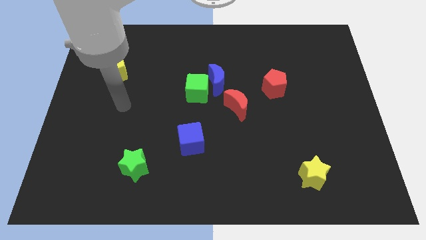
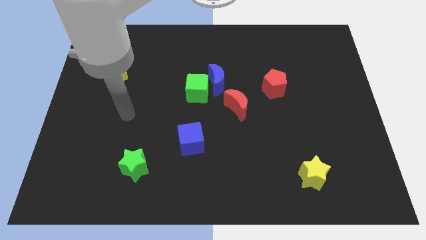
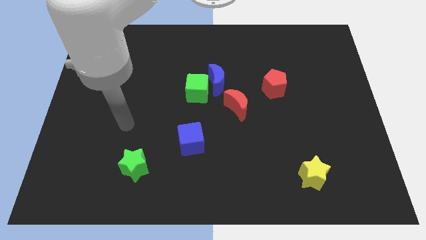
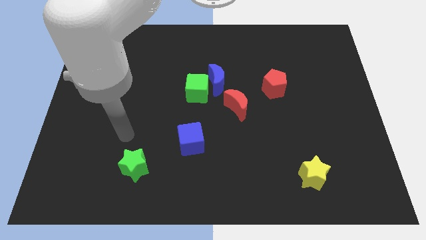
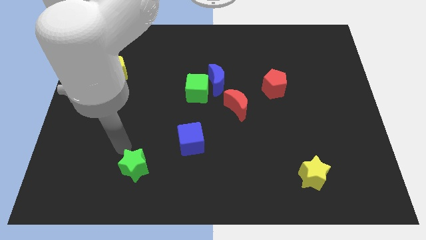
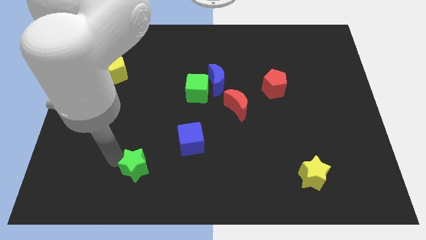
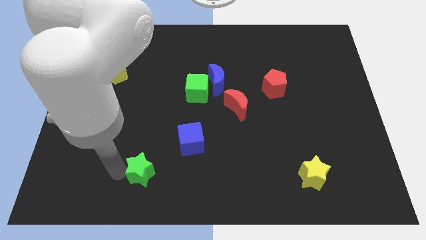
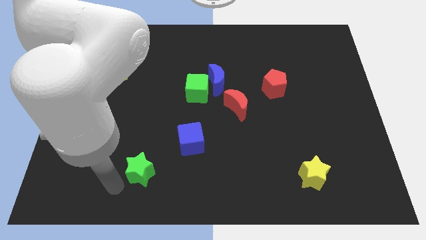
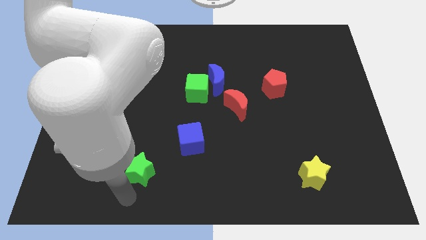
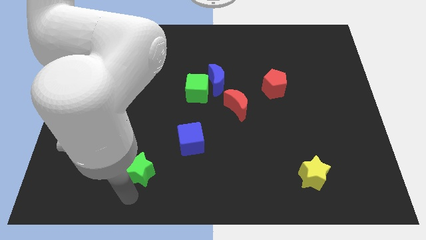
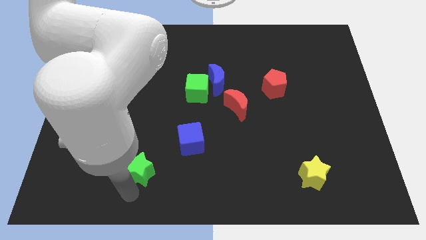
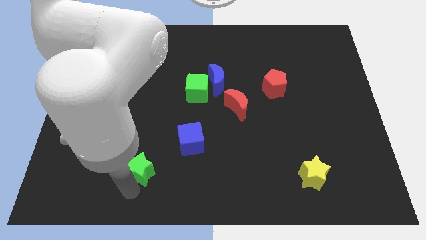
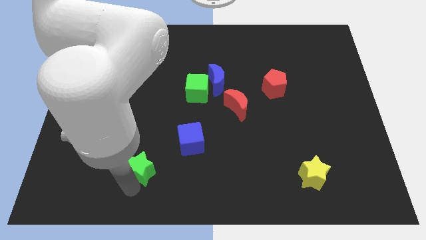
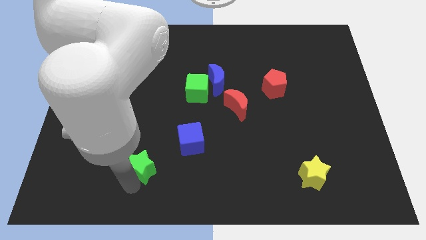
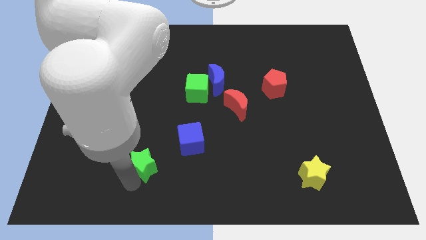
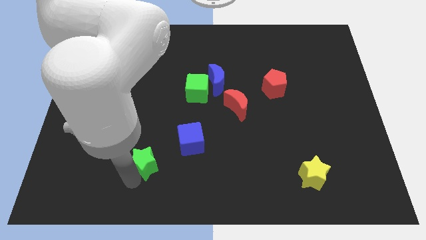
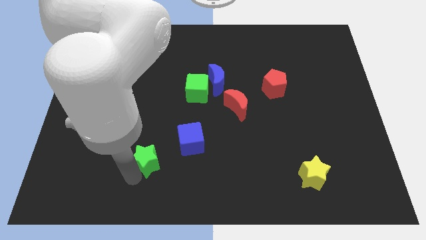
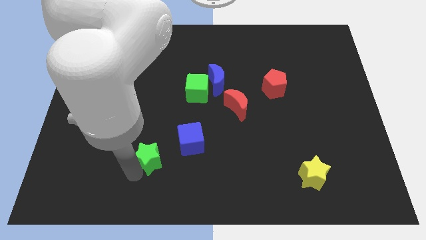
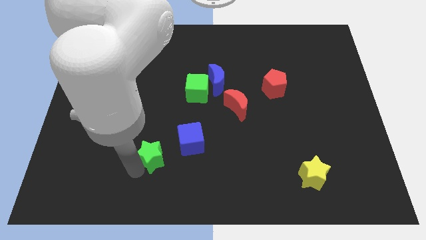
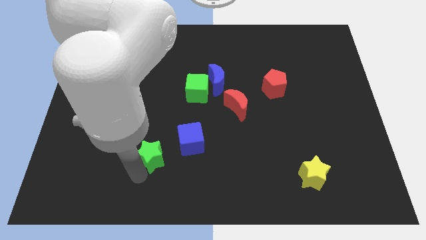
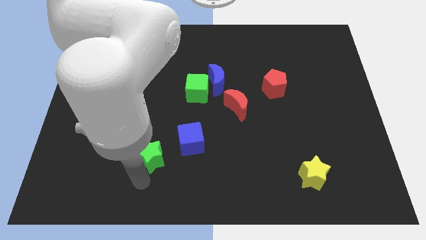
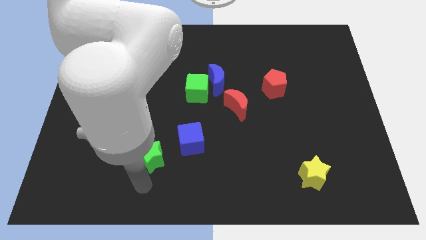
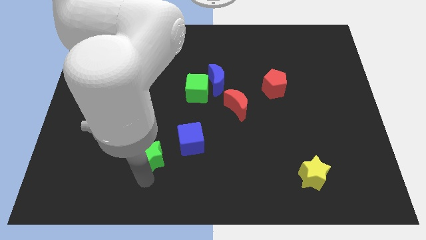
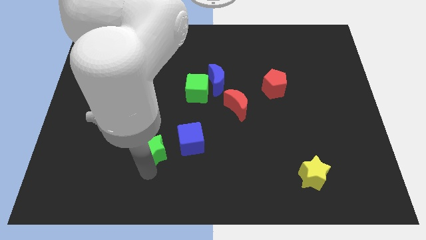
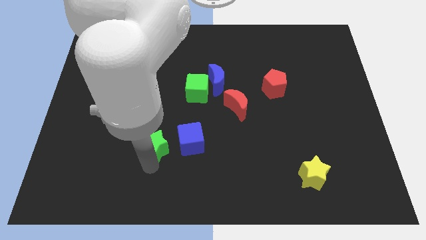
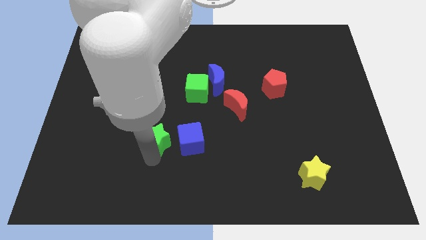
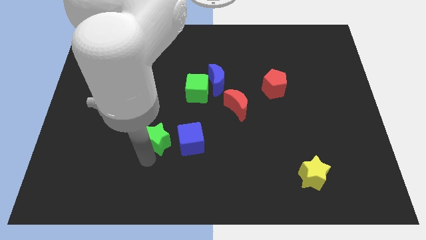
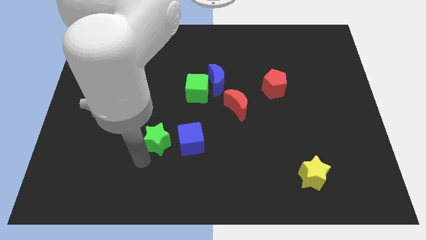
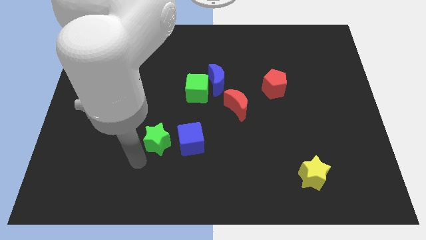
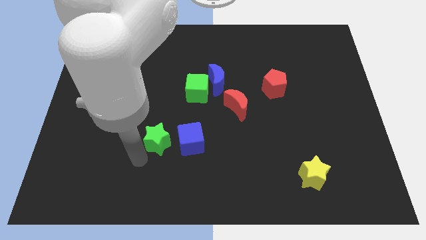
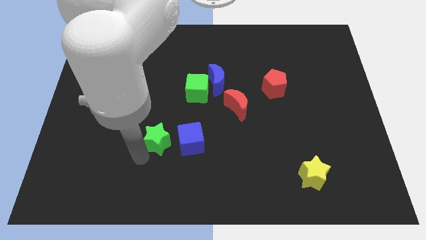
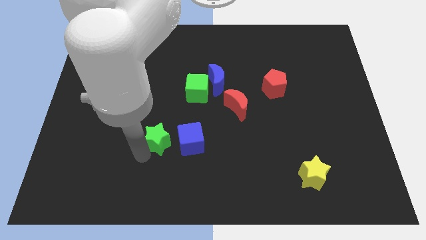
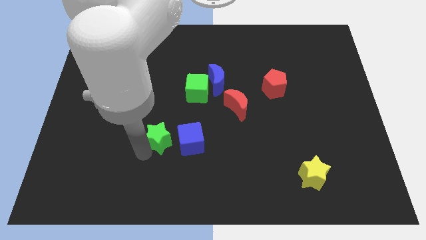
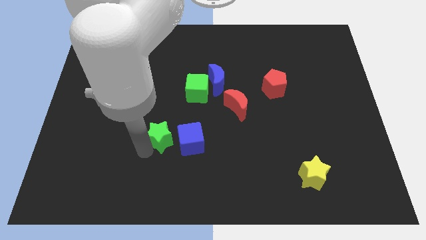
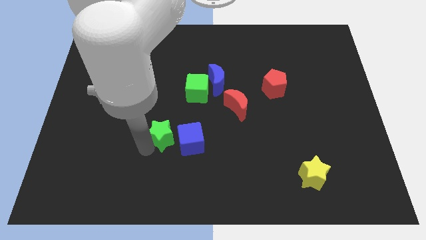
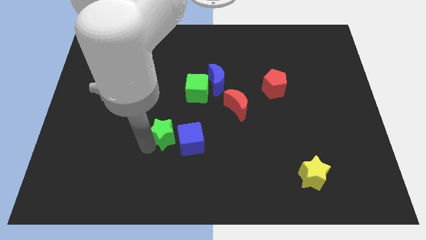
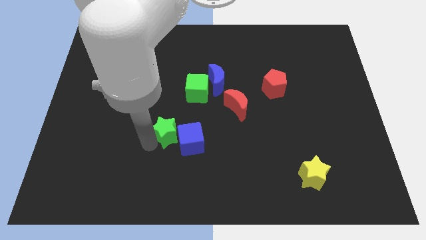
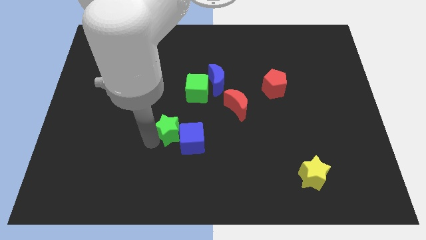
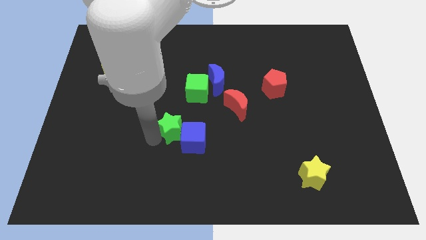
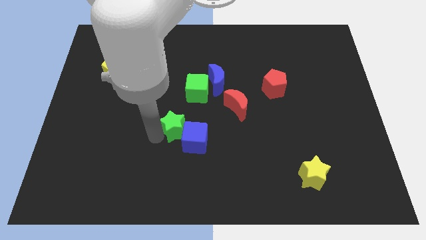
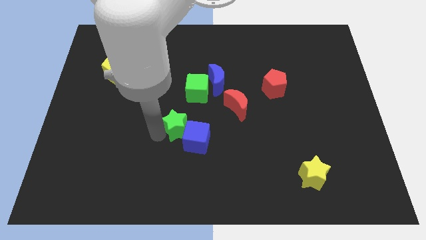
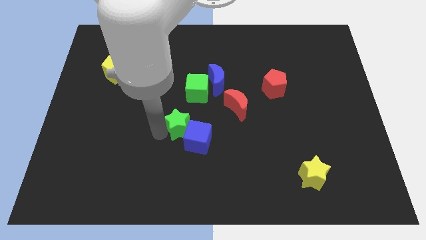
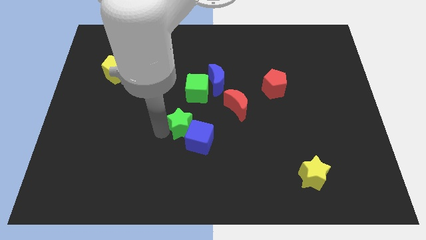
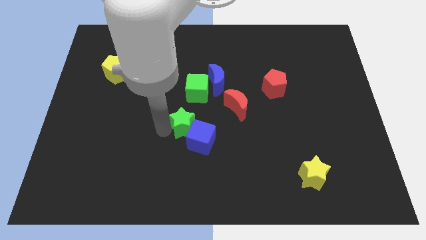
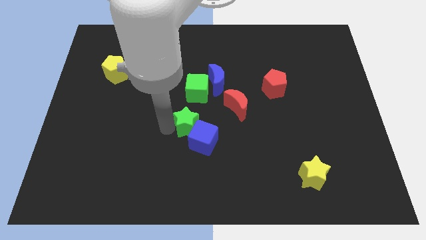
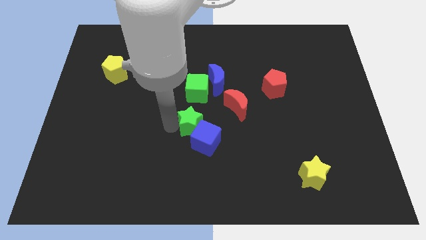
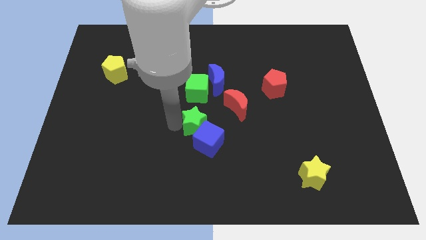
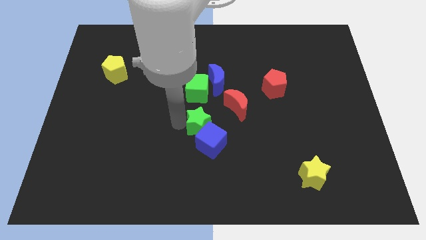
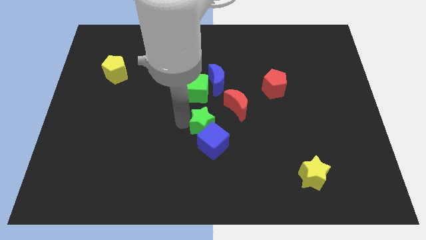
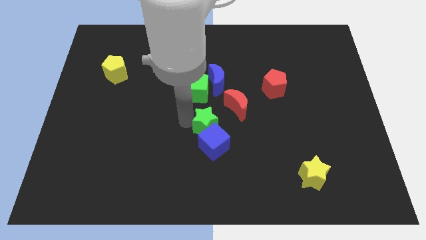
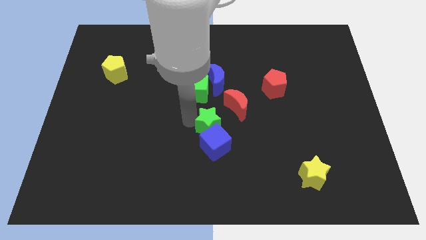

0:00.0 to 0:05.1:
put the green star diagonally up and to the right of the blue cube

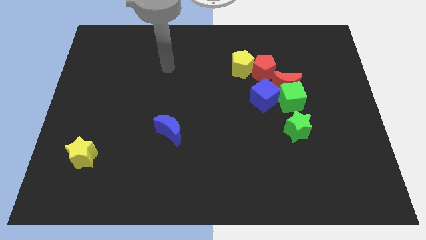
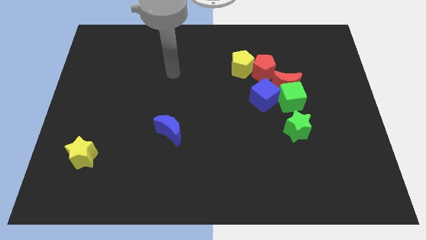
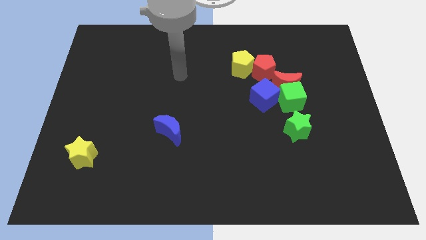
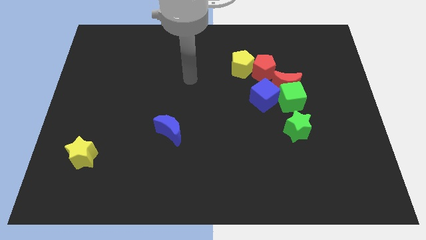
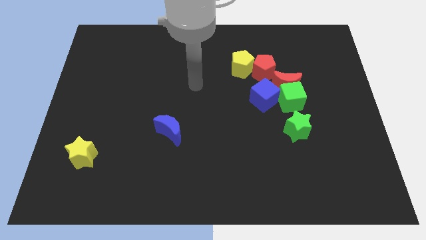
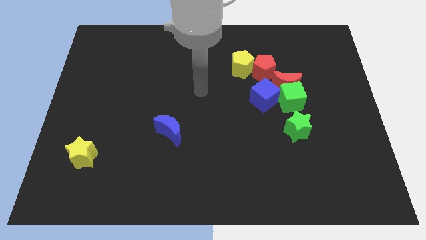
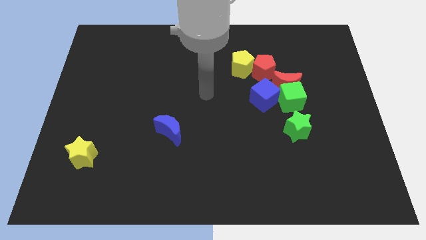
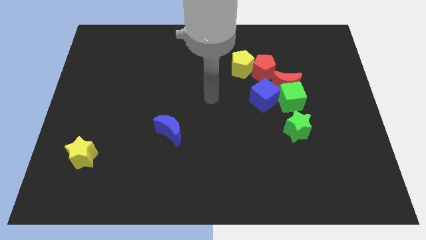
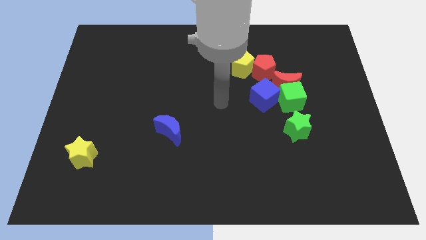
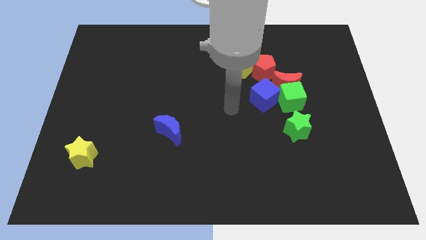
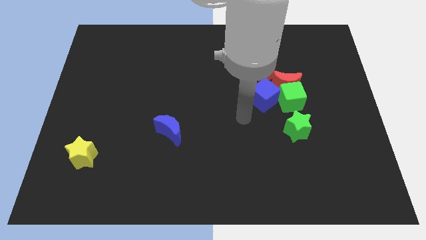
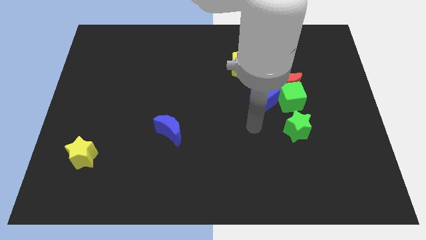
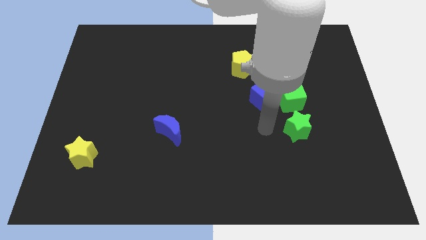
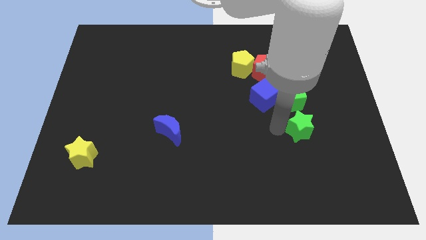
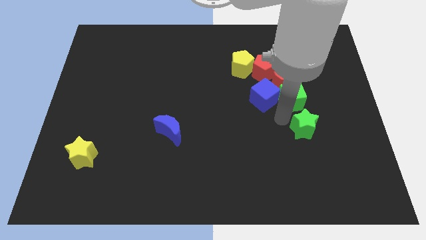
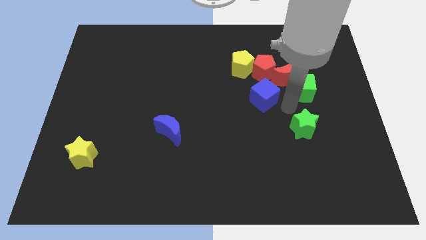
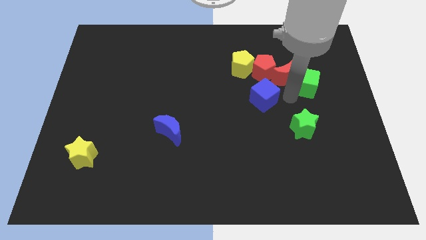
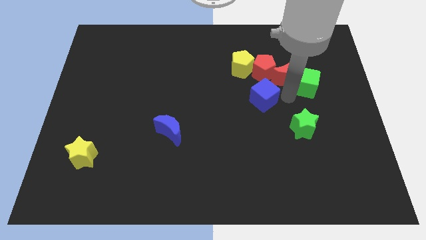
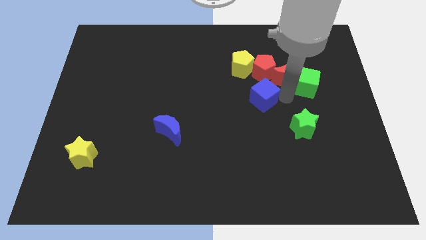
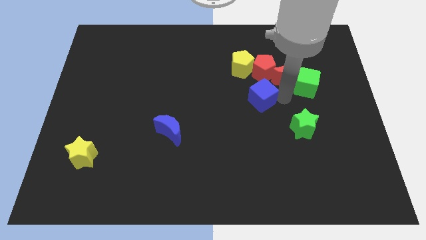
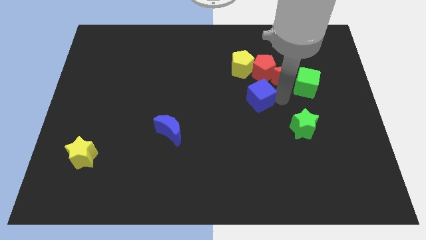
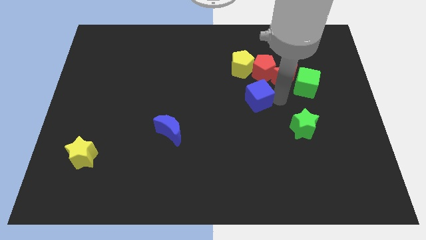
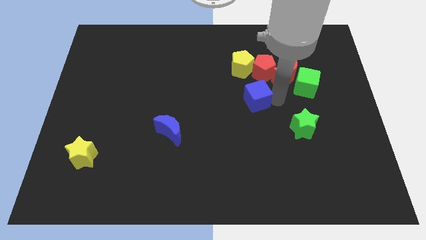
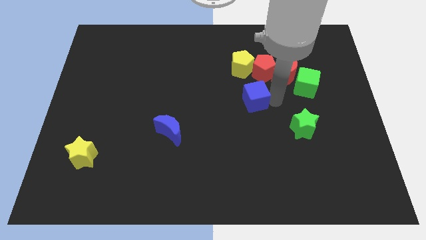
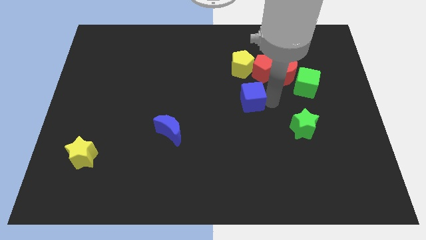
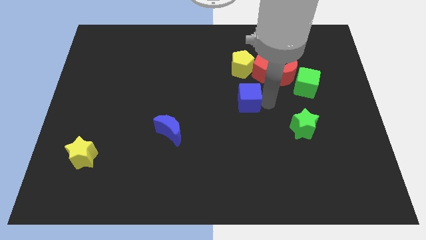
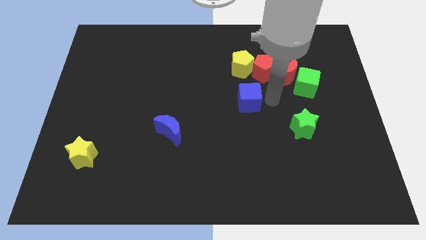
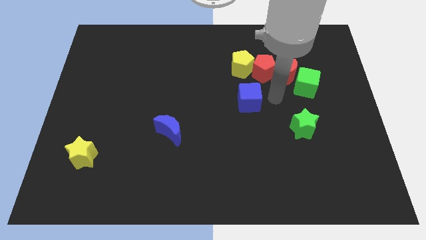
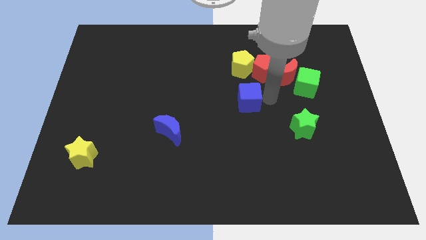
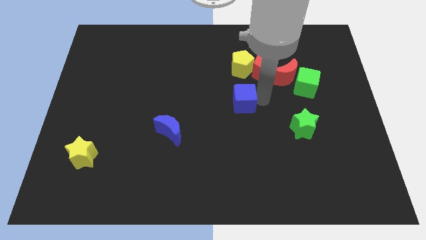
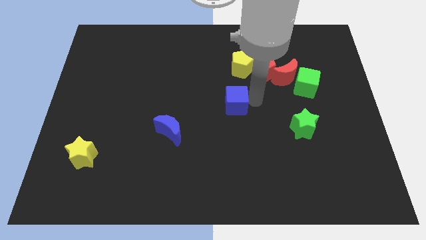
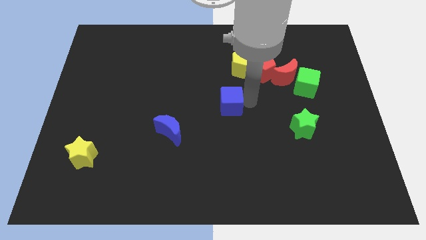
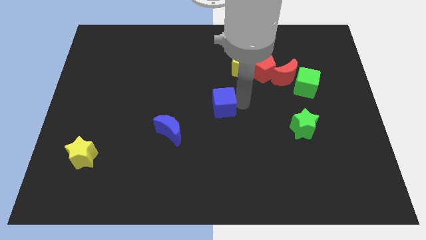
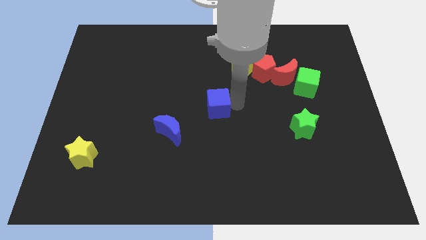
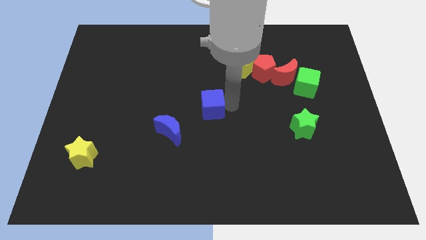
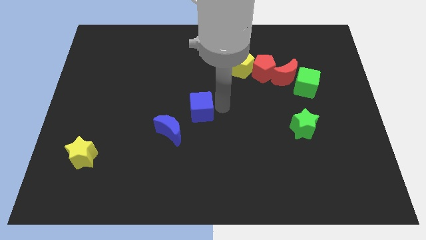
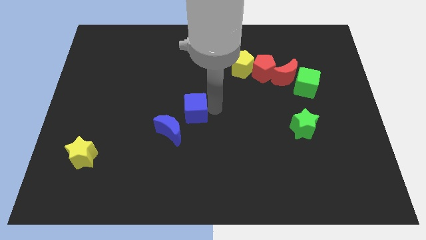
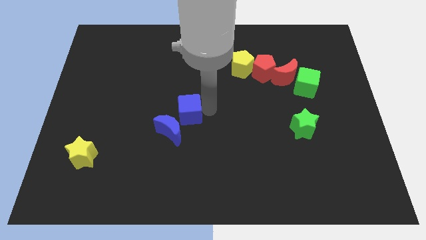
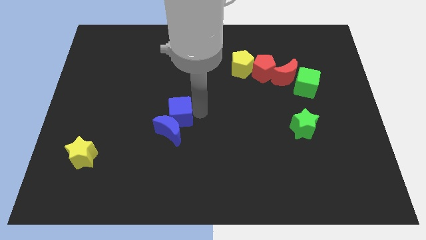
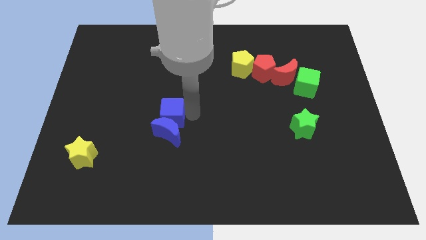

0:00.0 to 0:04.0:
put the blue cube diagonally up and to the left of the blue moon
